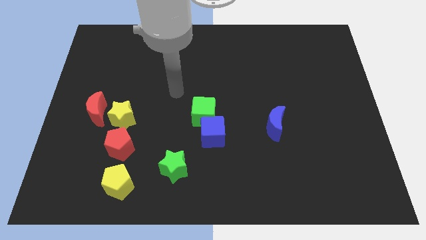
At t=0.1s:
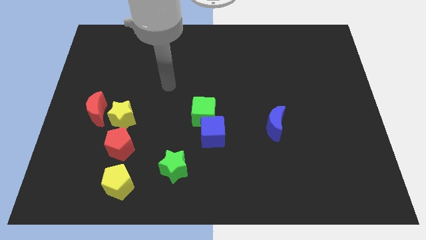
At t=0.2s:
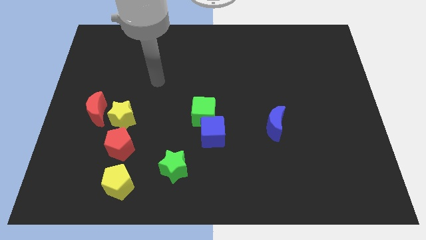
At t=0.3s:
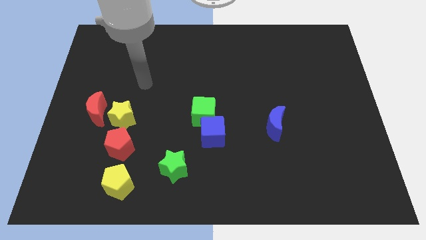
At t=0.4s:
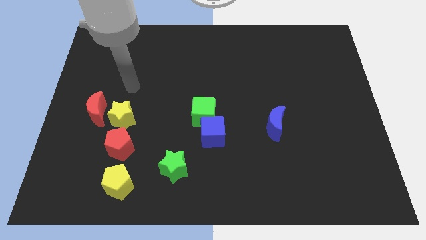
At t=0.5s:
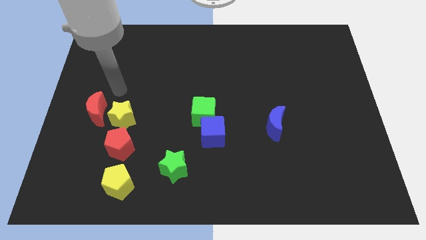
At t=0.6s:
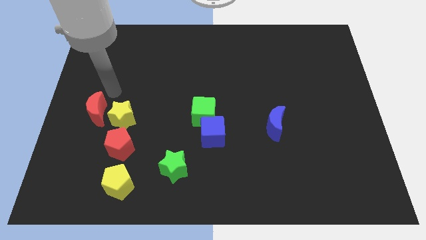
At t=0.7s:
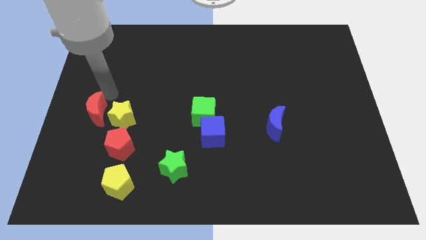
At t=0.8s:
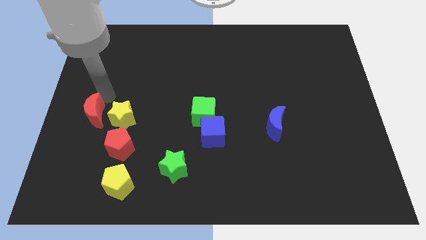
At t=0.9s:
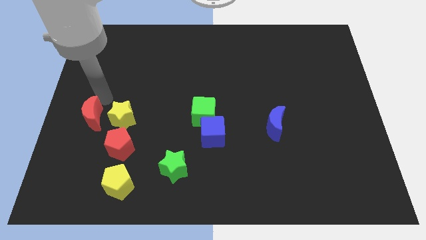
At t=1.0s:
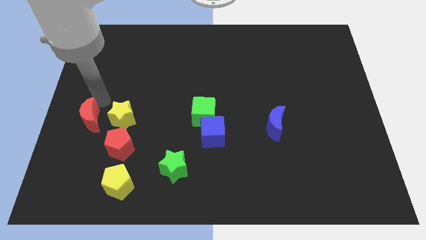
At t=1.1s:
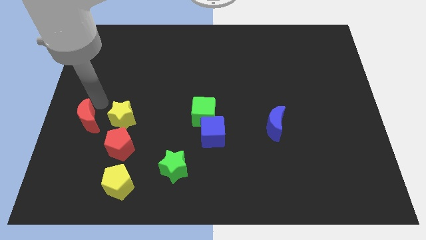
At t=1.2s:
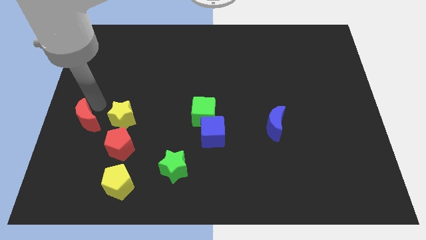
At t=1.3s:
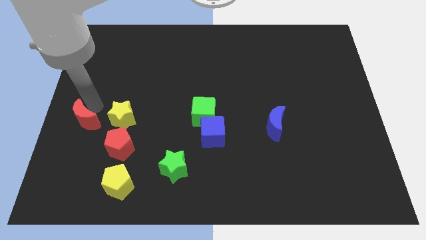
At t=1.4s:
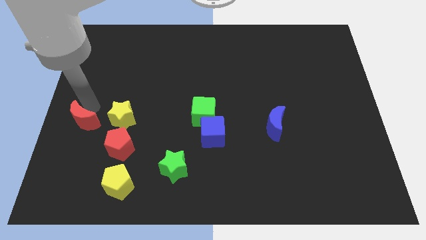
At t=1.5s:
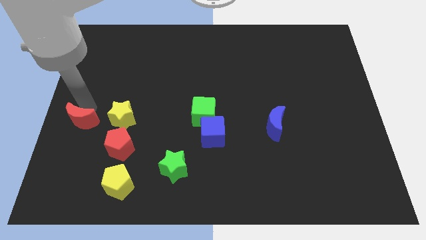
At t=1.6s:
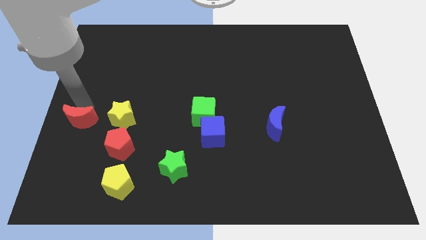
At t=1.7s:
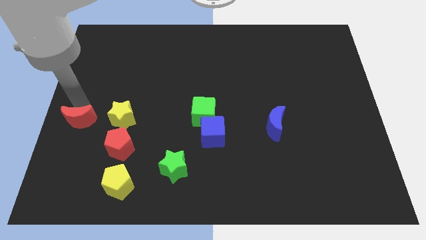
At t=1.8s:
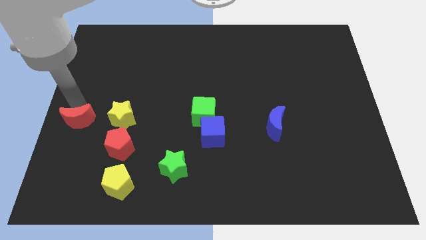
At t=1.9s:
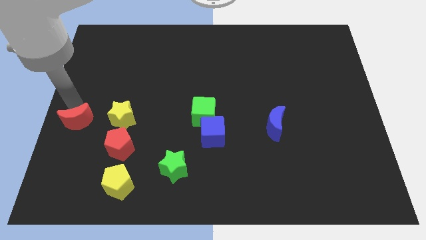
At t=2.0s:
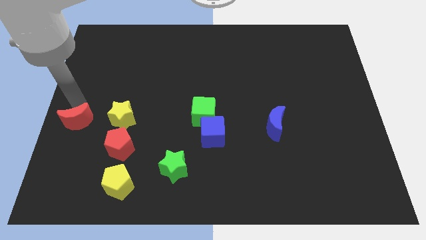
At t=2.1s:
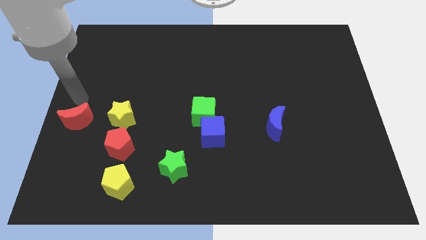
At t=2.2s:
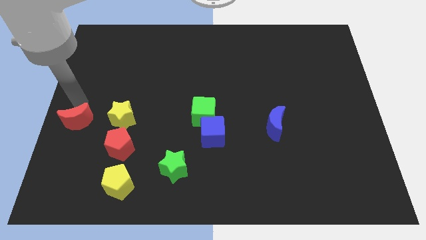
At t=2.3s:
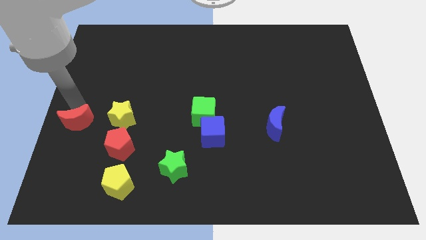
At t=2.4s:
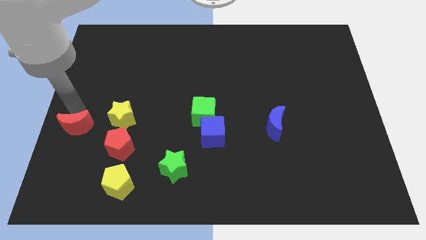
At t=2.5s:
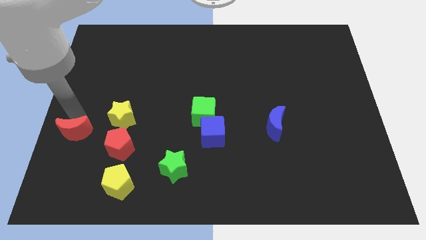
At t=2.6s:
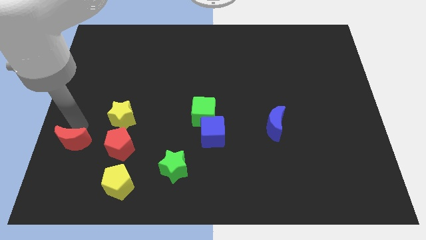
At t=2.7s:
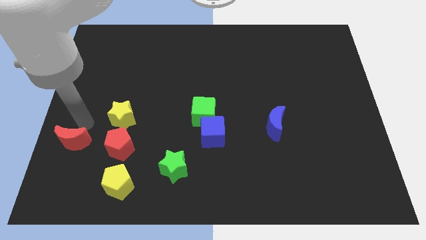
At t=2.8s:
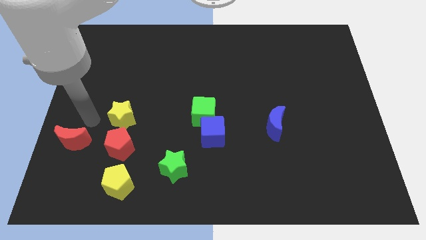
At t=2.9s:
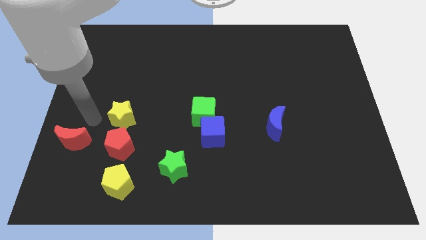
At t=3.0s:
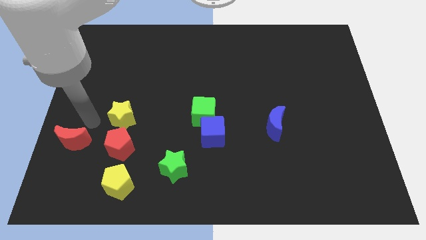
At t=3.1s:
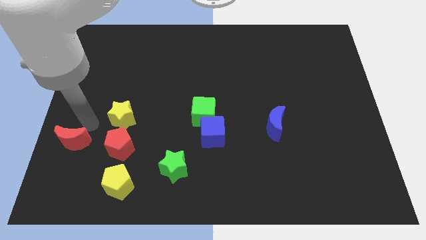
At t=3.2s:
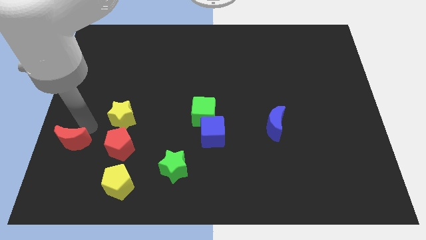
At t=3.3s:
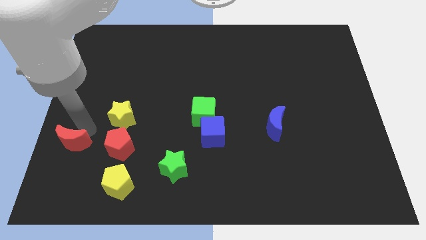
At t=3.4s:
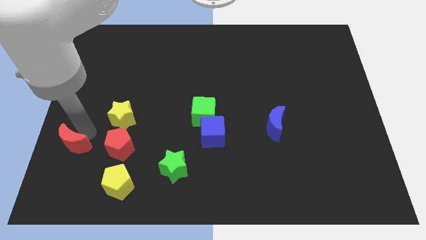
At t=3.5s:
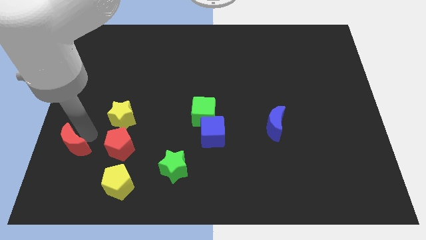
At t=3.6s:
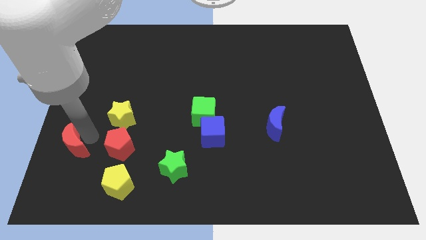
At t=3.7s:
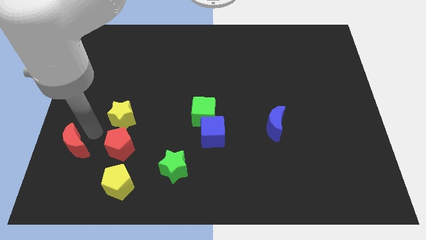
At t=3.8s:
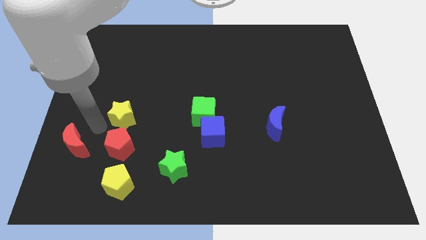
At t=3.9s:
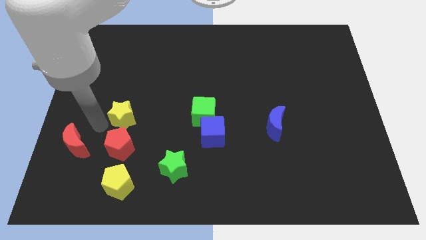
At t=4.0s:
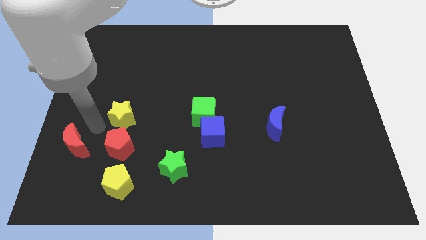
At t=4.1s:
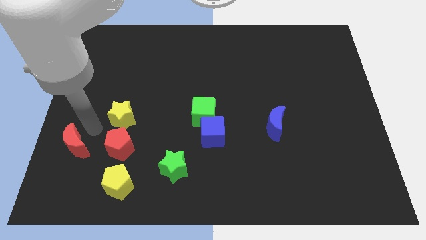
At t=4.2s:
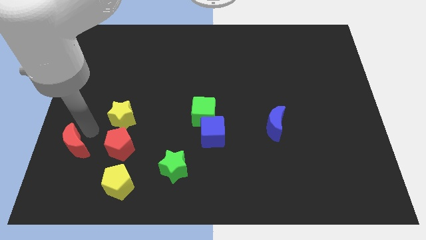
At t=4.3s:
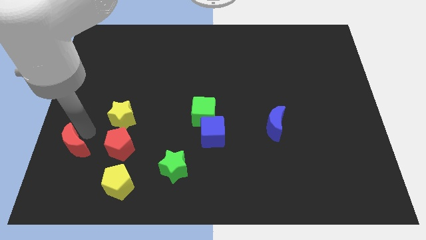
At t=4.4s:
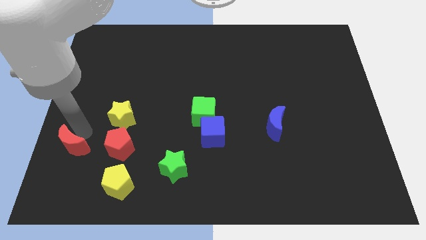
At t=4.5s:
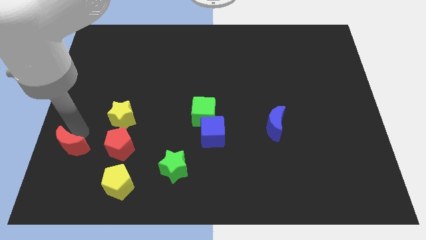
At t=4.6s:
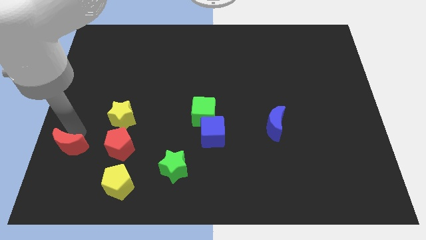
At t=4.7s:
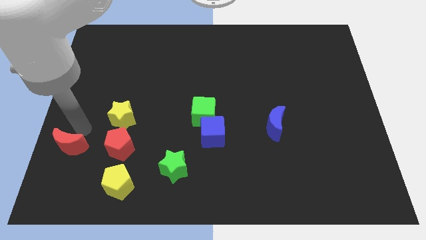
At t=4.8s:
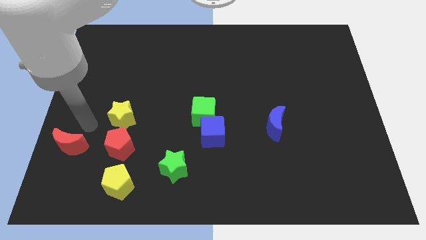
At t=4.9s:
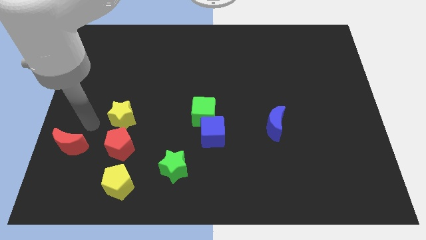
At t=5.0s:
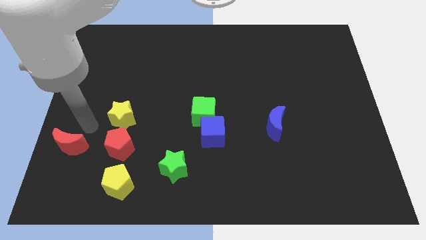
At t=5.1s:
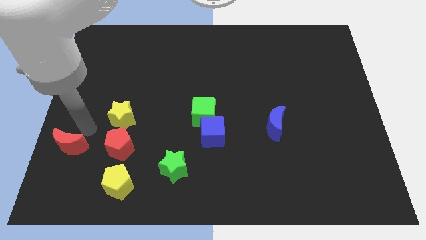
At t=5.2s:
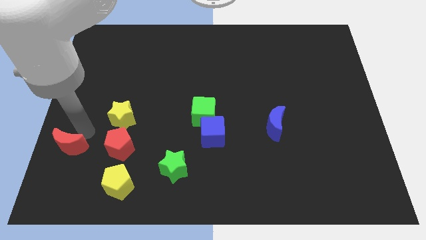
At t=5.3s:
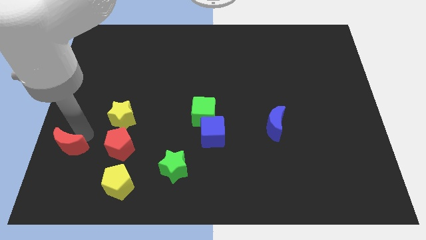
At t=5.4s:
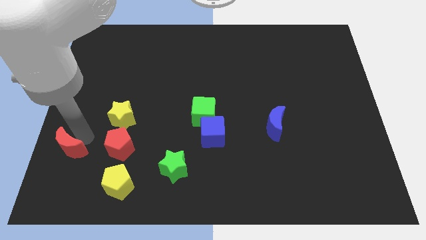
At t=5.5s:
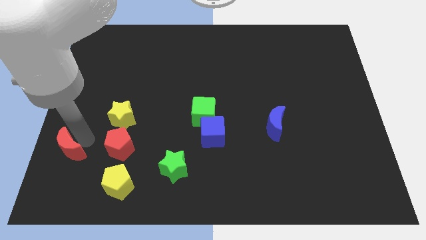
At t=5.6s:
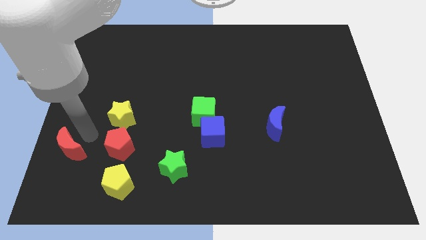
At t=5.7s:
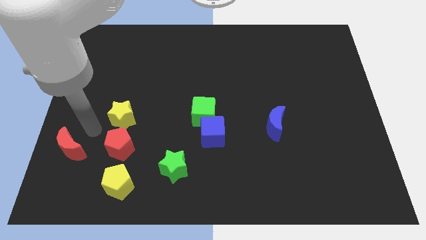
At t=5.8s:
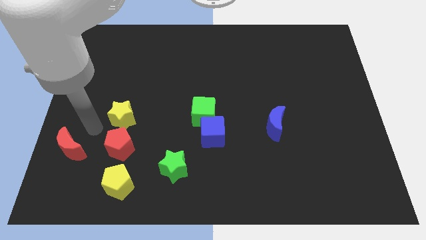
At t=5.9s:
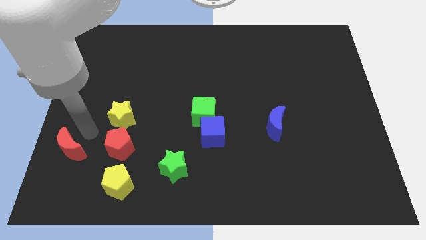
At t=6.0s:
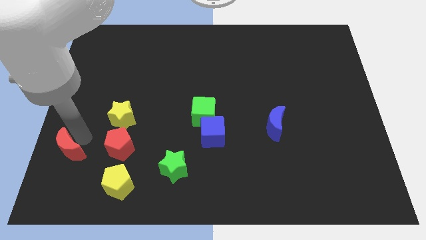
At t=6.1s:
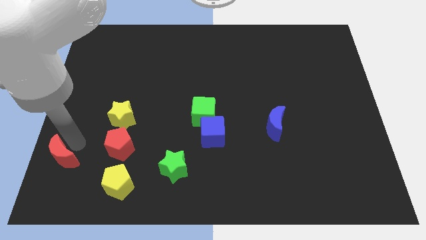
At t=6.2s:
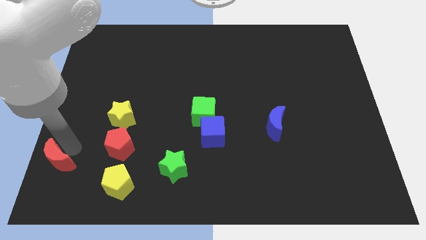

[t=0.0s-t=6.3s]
put the red moon to the lower left corner
